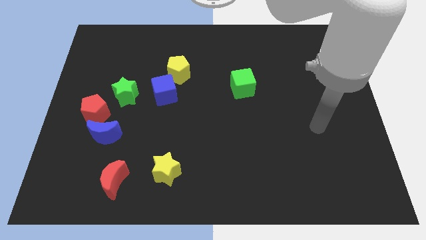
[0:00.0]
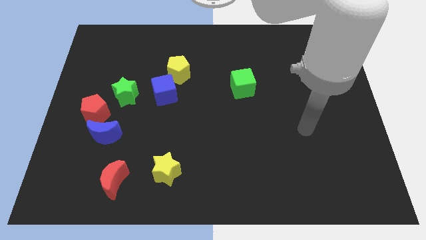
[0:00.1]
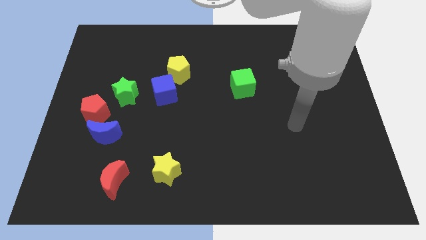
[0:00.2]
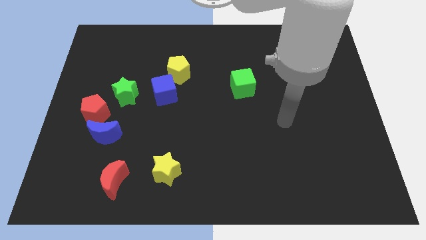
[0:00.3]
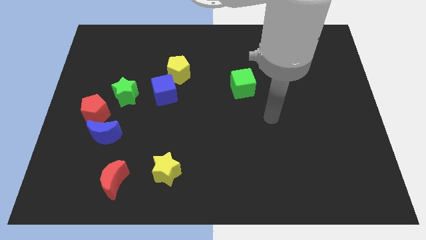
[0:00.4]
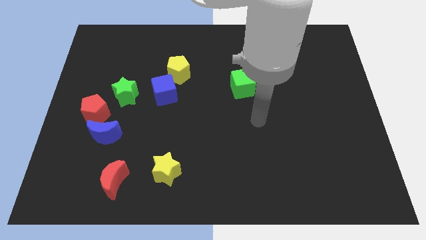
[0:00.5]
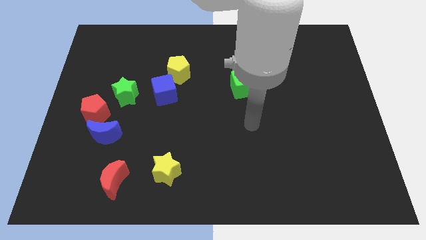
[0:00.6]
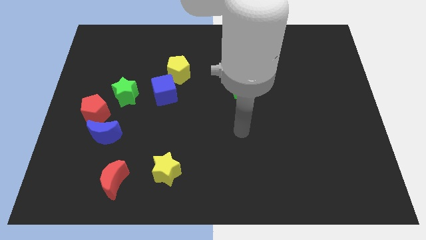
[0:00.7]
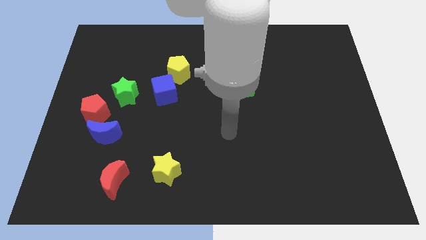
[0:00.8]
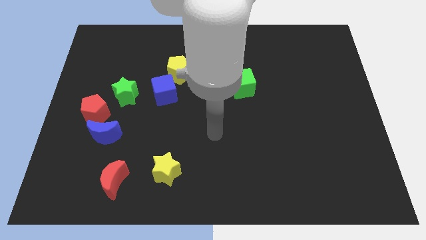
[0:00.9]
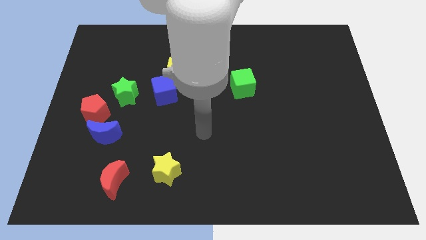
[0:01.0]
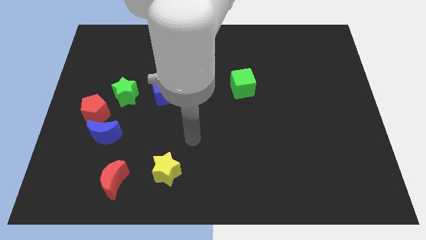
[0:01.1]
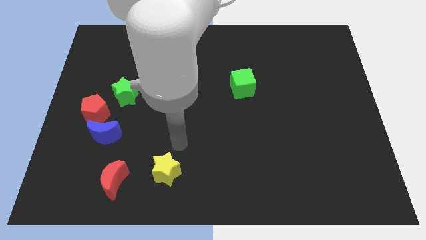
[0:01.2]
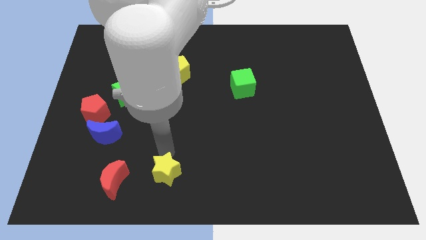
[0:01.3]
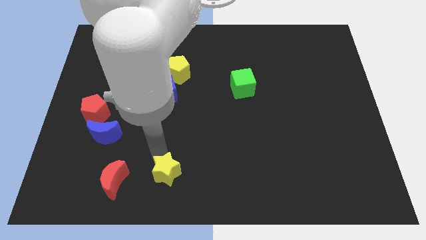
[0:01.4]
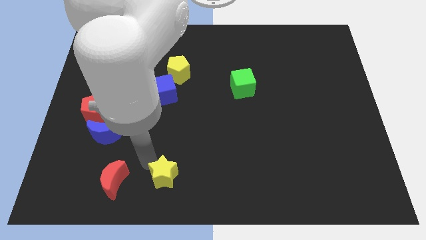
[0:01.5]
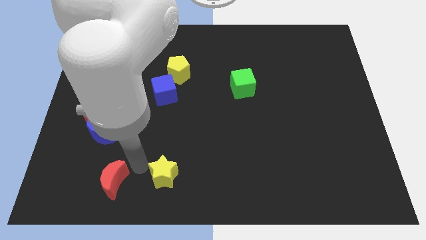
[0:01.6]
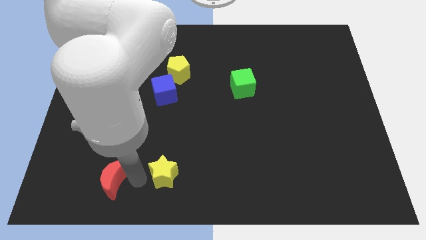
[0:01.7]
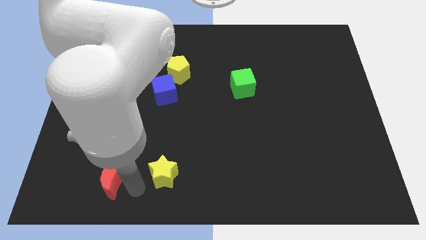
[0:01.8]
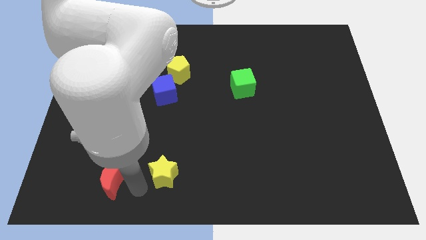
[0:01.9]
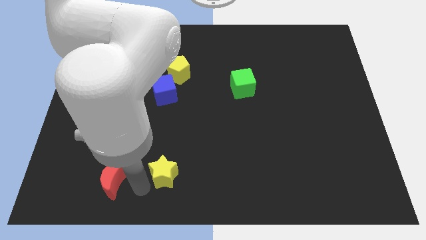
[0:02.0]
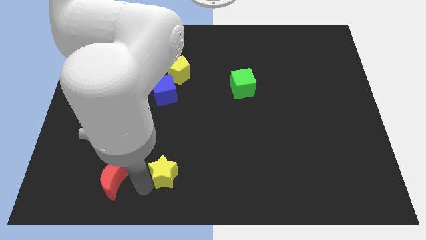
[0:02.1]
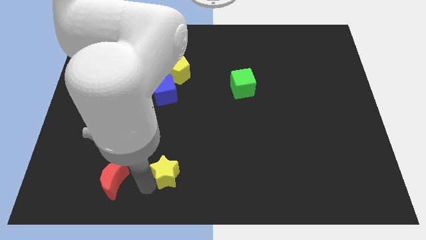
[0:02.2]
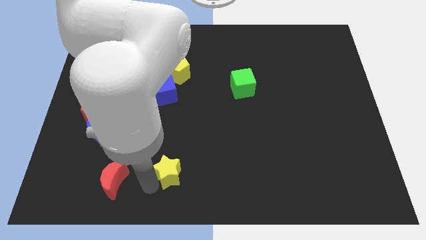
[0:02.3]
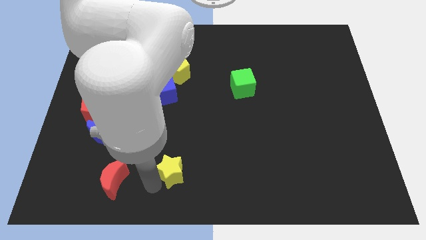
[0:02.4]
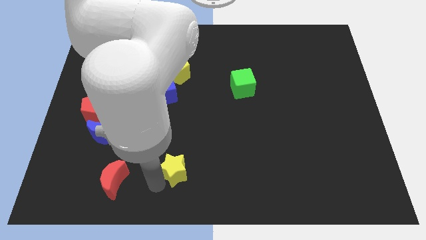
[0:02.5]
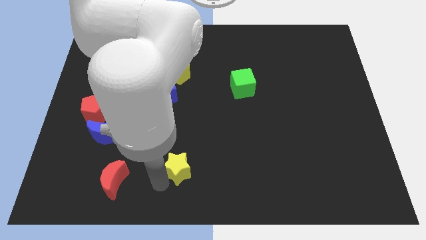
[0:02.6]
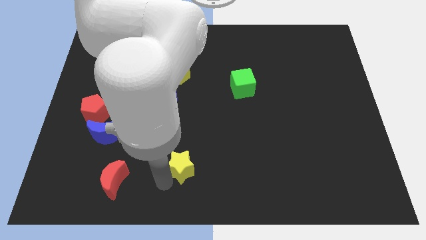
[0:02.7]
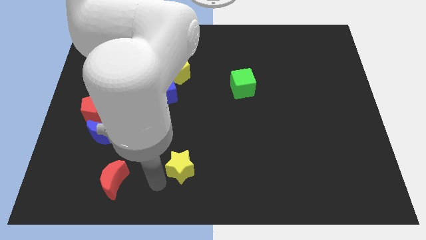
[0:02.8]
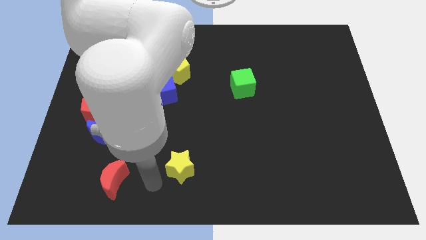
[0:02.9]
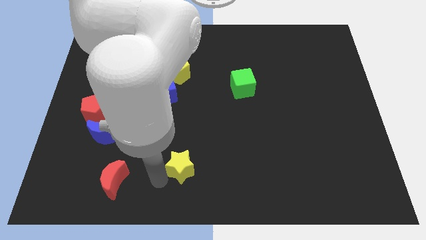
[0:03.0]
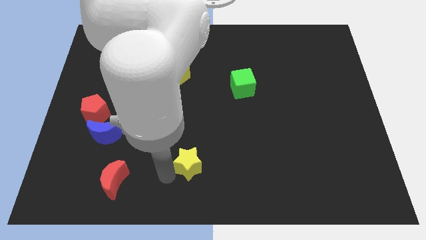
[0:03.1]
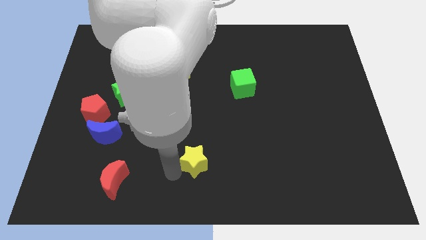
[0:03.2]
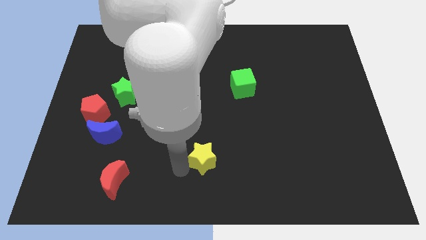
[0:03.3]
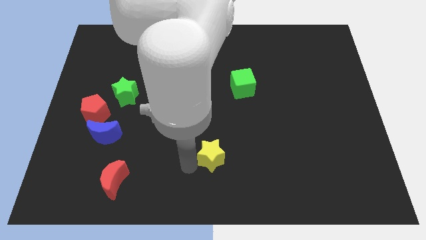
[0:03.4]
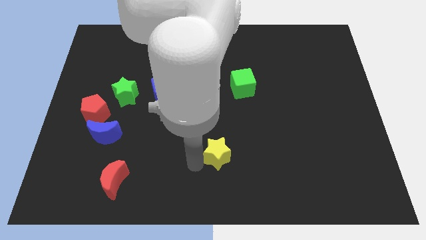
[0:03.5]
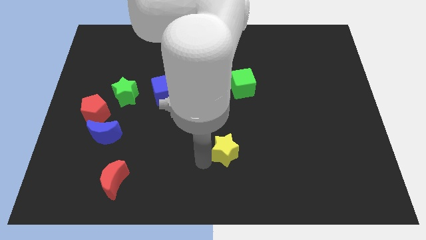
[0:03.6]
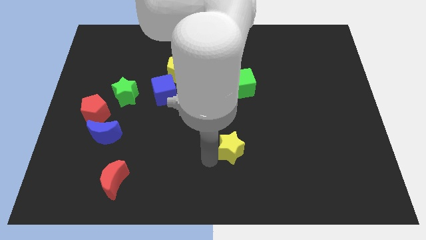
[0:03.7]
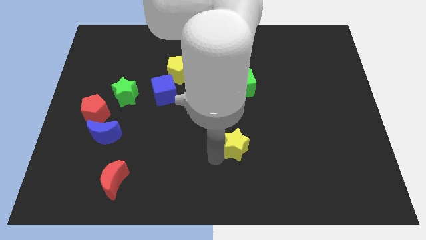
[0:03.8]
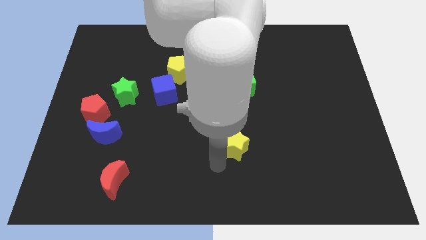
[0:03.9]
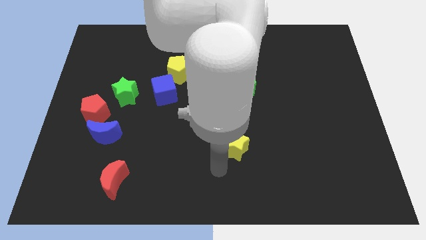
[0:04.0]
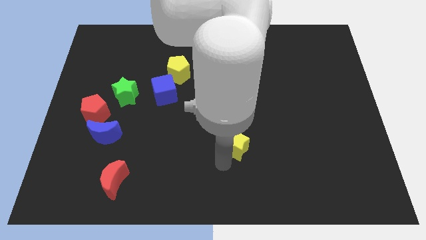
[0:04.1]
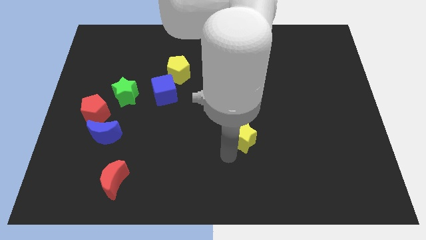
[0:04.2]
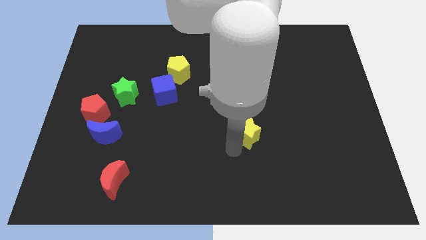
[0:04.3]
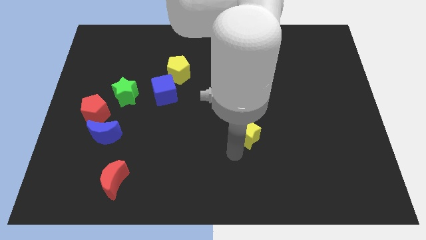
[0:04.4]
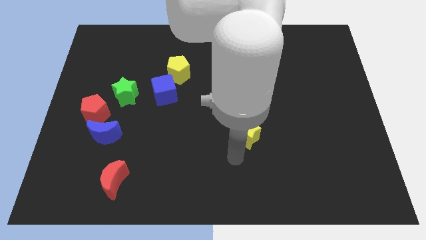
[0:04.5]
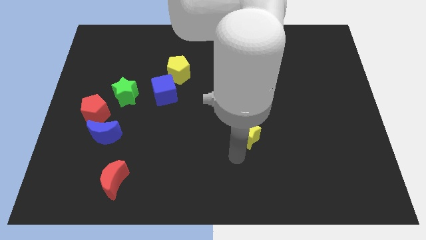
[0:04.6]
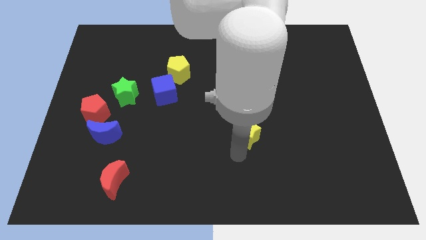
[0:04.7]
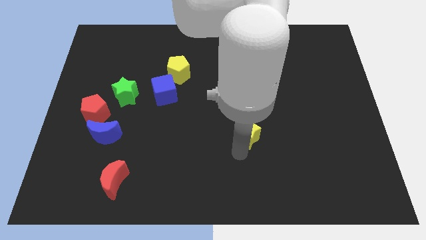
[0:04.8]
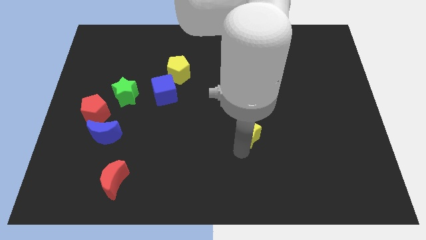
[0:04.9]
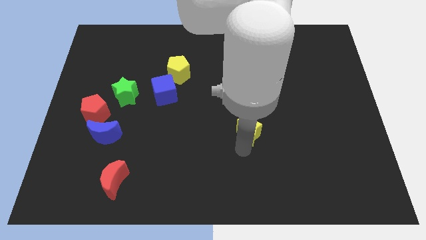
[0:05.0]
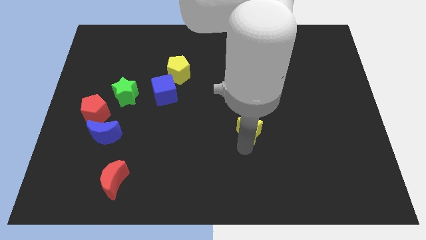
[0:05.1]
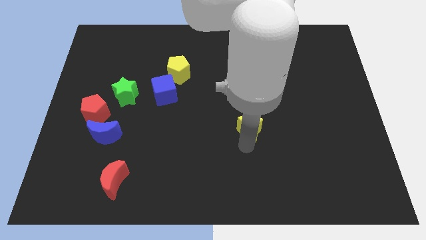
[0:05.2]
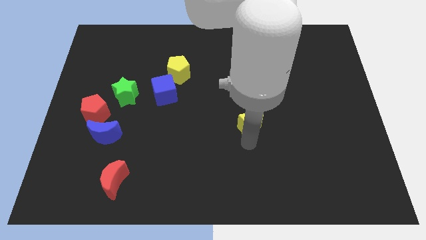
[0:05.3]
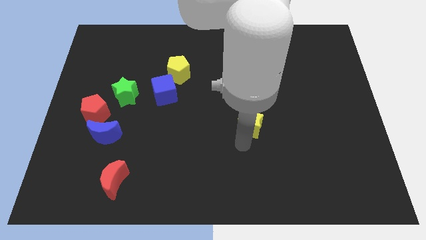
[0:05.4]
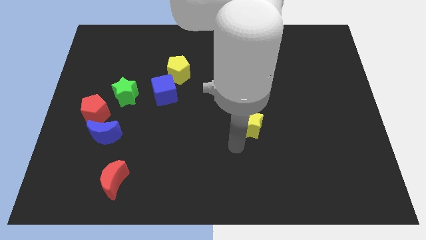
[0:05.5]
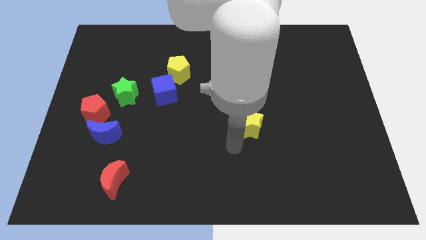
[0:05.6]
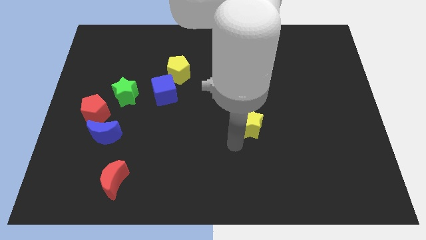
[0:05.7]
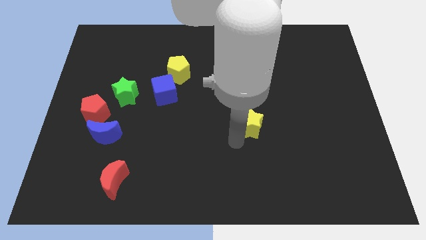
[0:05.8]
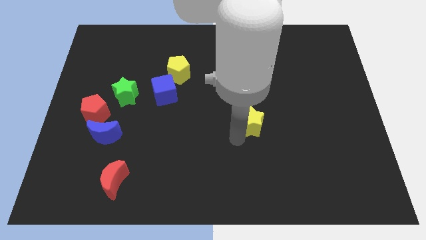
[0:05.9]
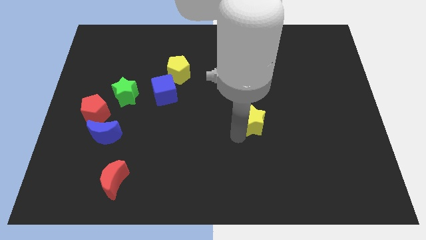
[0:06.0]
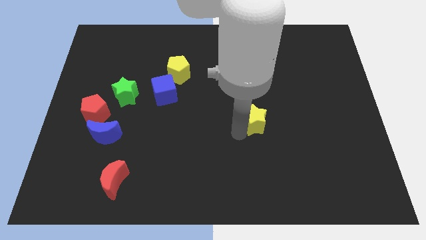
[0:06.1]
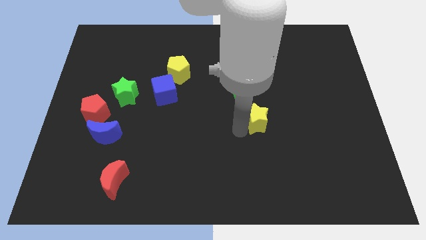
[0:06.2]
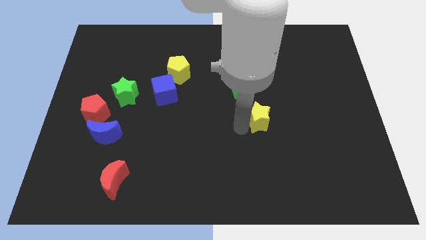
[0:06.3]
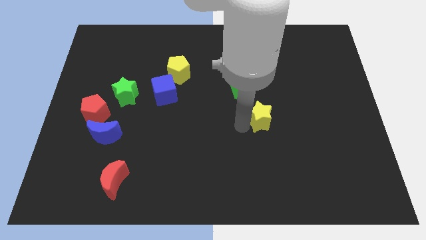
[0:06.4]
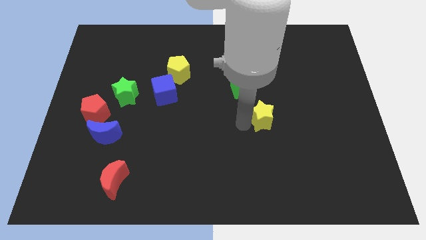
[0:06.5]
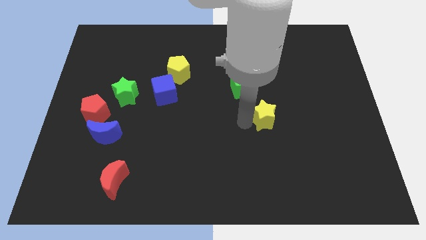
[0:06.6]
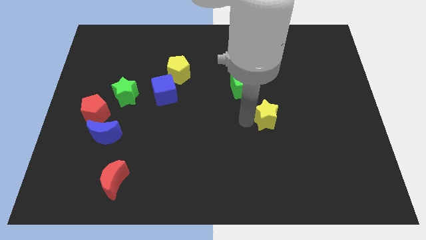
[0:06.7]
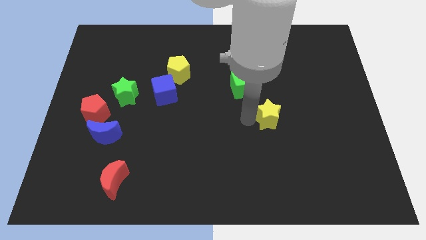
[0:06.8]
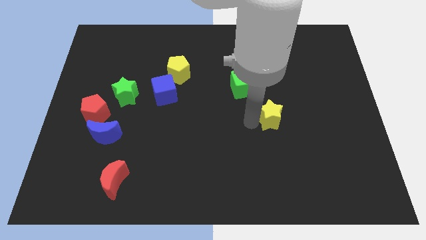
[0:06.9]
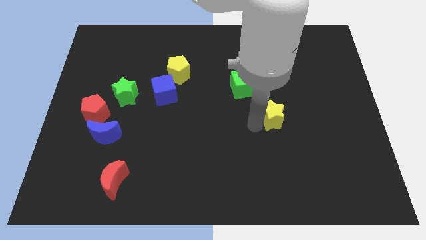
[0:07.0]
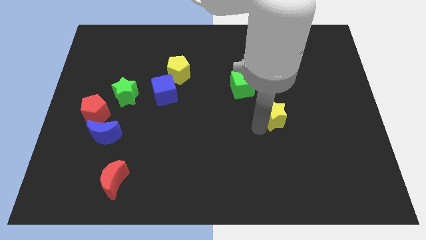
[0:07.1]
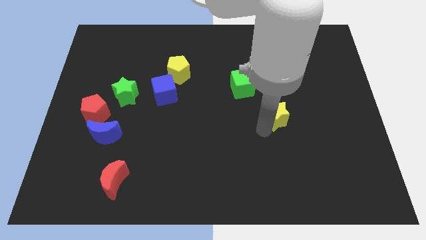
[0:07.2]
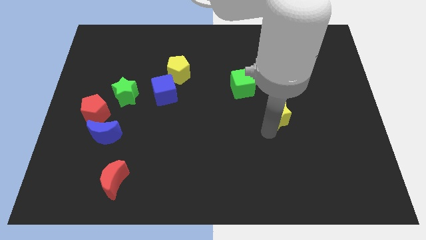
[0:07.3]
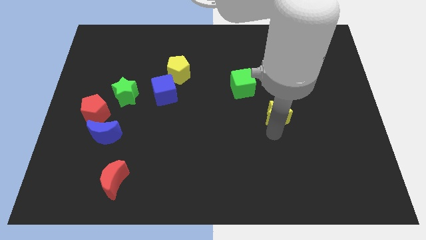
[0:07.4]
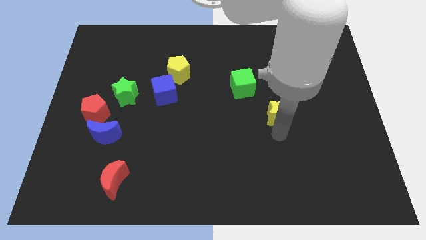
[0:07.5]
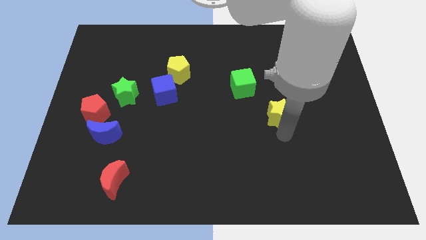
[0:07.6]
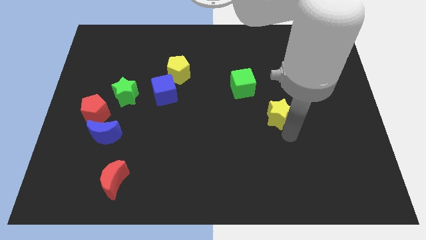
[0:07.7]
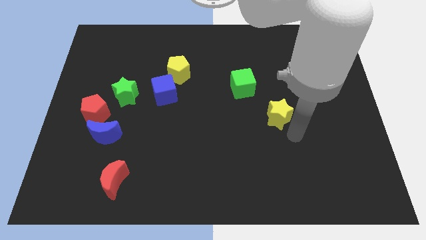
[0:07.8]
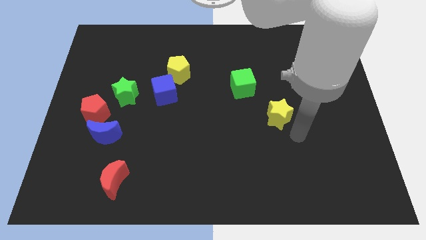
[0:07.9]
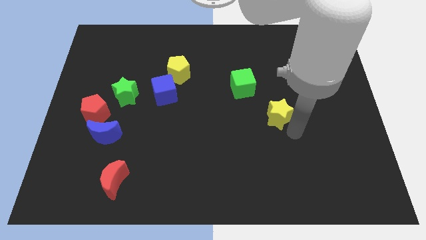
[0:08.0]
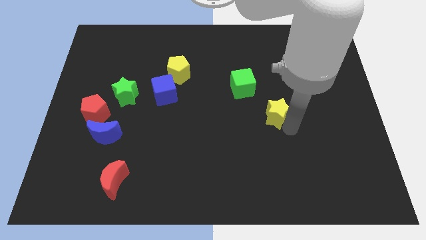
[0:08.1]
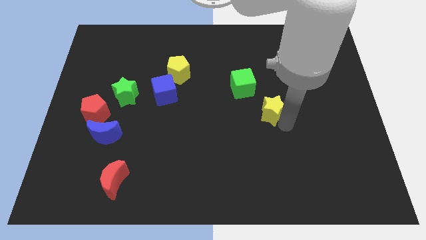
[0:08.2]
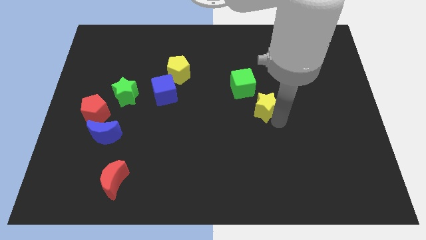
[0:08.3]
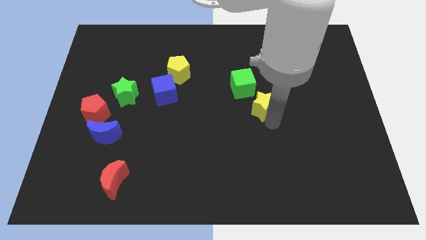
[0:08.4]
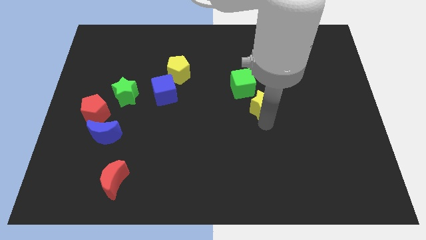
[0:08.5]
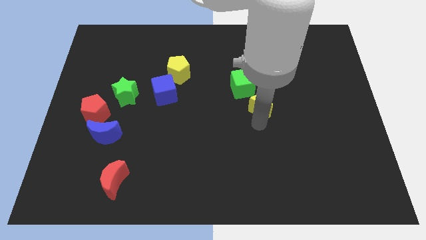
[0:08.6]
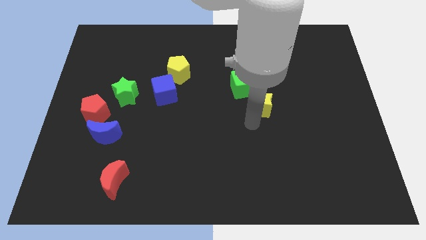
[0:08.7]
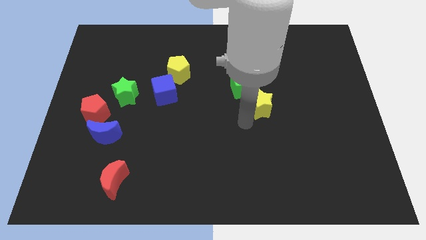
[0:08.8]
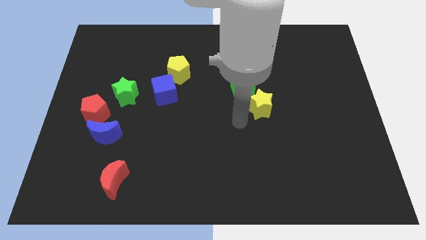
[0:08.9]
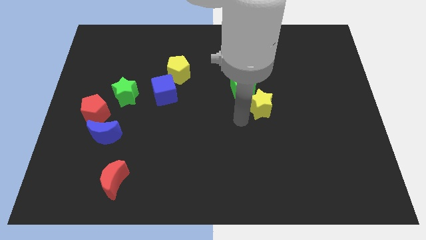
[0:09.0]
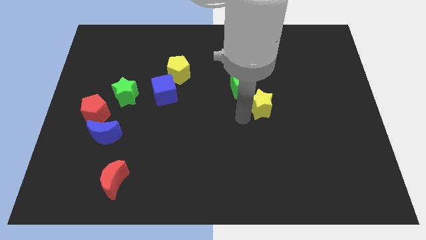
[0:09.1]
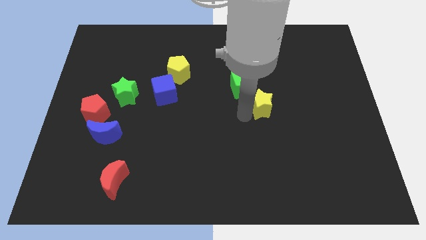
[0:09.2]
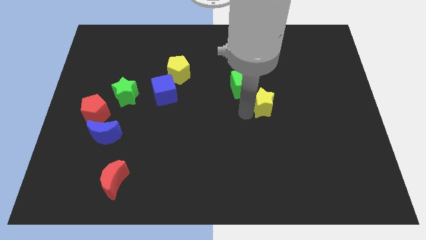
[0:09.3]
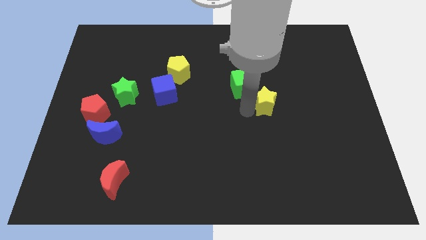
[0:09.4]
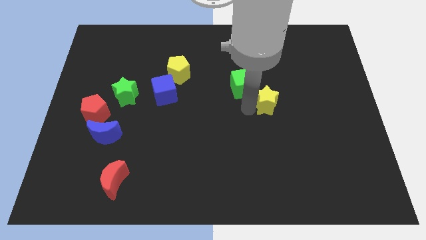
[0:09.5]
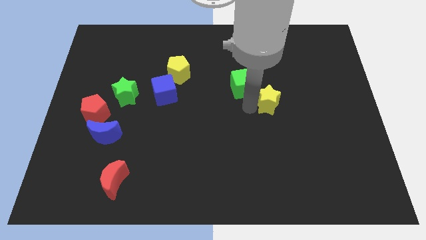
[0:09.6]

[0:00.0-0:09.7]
slide the yellow star to the right side of the green cube
